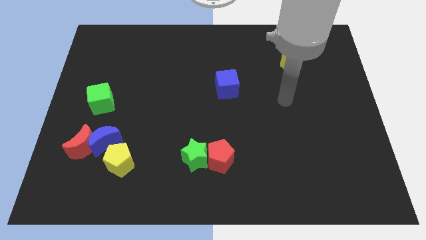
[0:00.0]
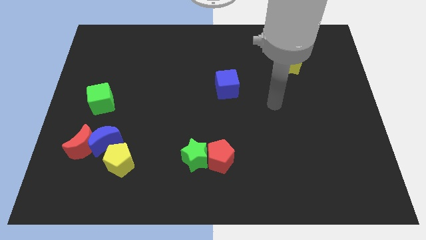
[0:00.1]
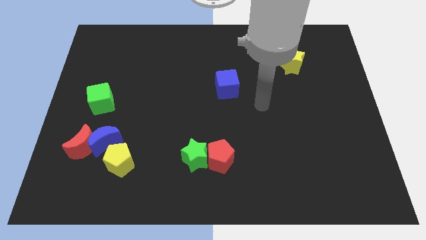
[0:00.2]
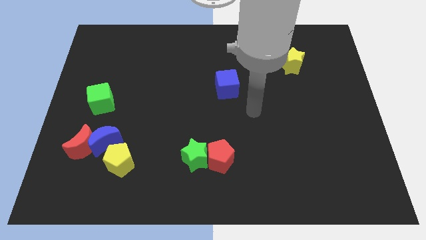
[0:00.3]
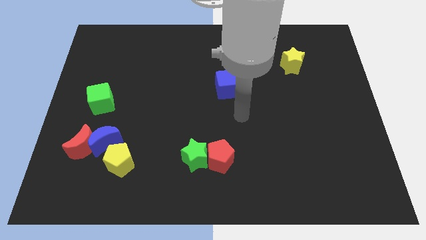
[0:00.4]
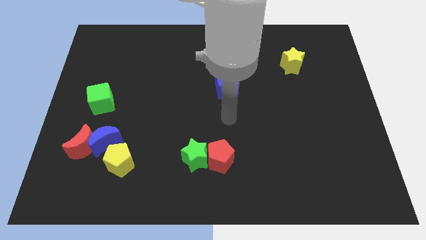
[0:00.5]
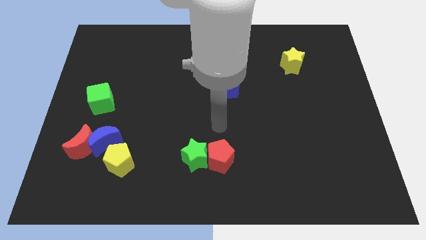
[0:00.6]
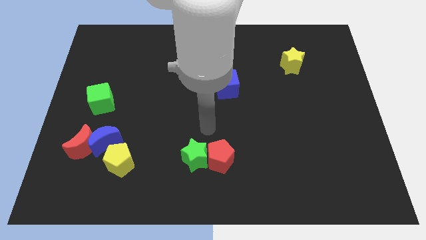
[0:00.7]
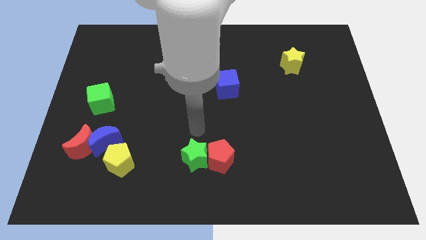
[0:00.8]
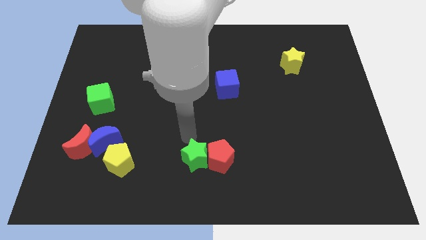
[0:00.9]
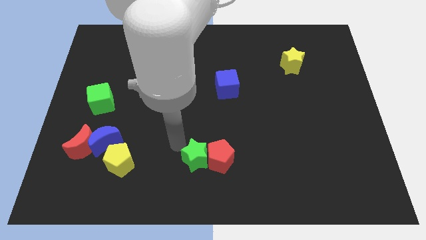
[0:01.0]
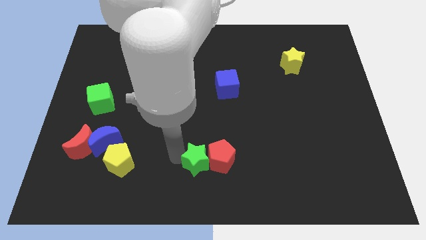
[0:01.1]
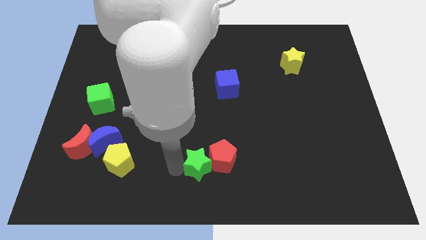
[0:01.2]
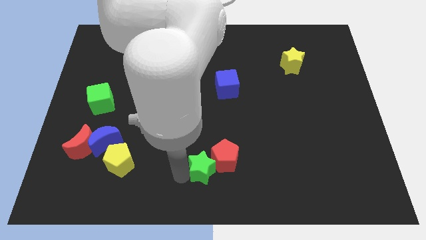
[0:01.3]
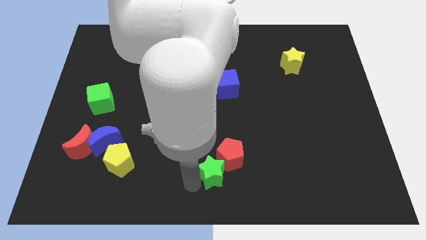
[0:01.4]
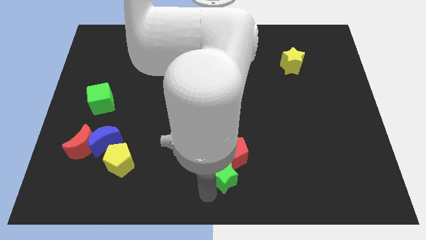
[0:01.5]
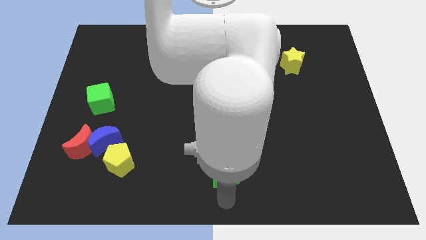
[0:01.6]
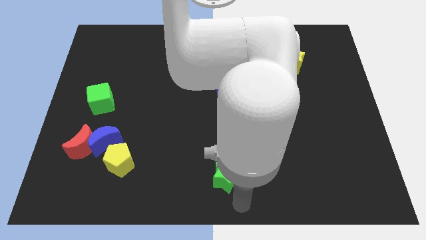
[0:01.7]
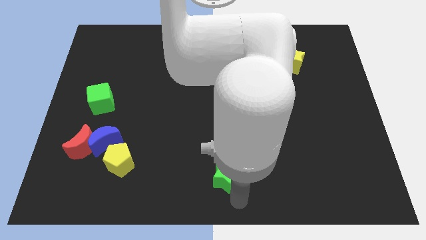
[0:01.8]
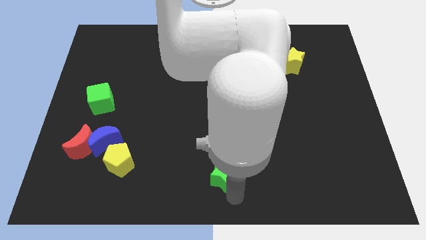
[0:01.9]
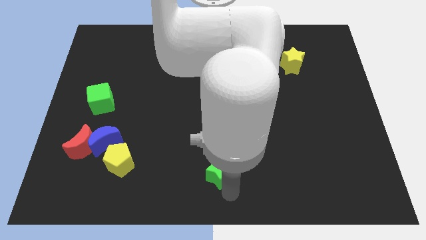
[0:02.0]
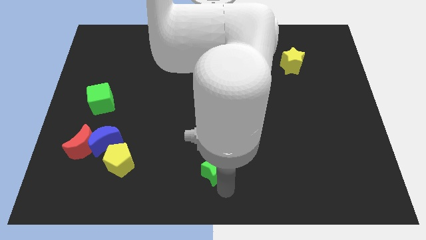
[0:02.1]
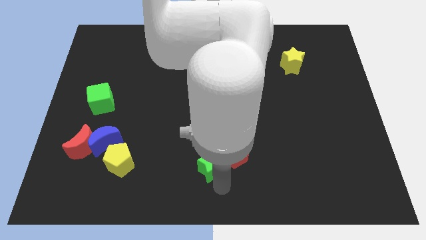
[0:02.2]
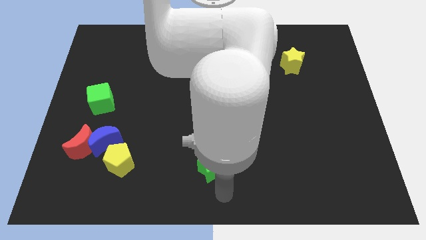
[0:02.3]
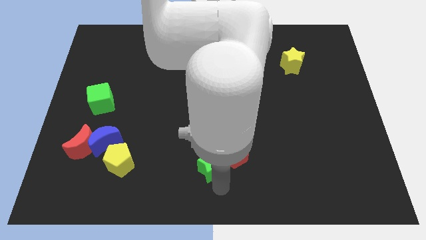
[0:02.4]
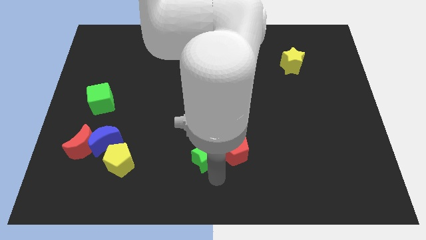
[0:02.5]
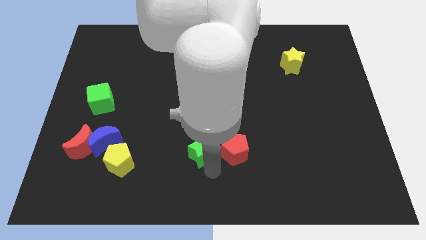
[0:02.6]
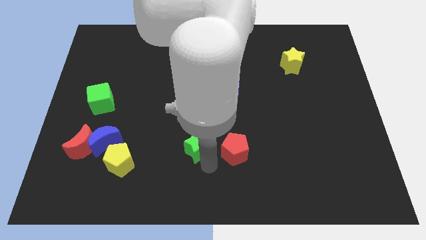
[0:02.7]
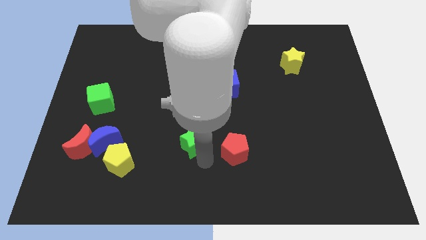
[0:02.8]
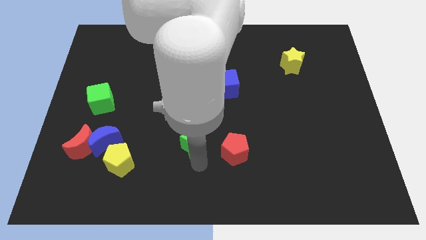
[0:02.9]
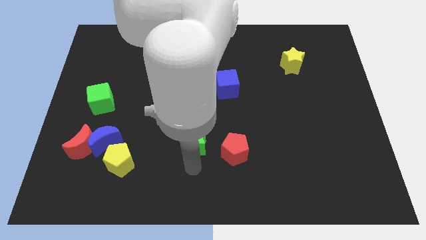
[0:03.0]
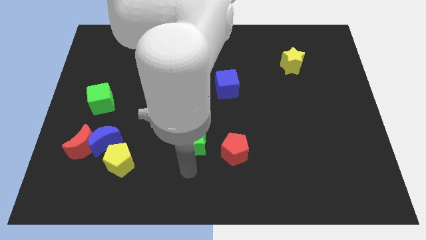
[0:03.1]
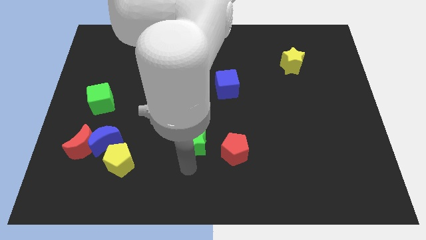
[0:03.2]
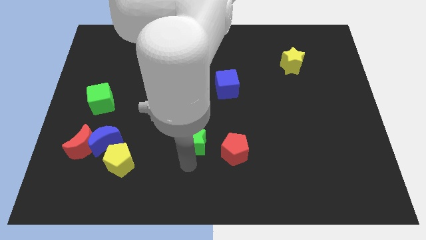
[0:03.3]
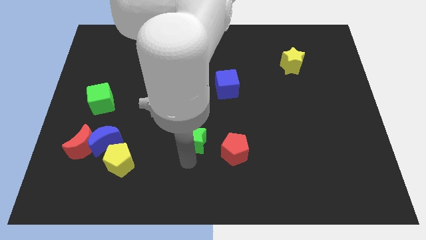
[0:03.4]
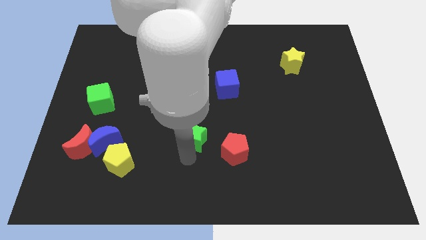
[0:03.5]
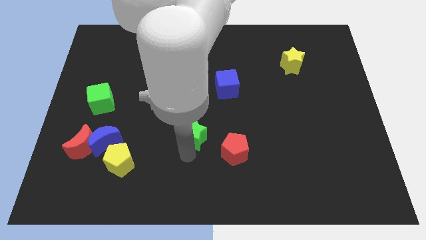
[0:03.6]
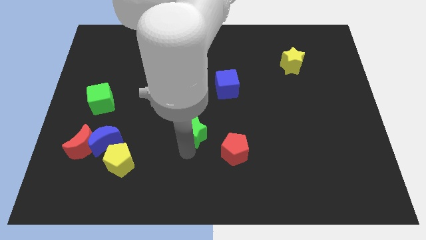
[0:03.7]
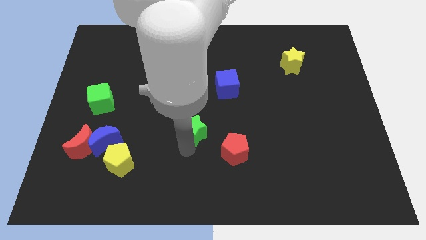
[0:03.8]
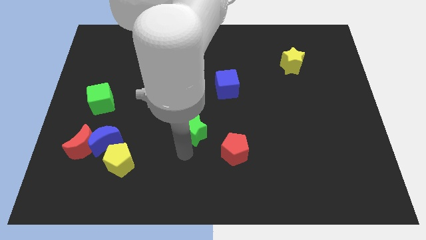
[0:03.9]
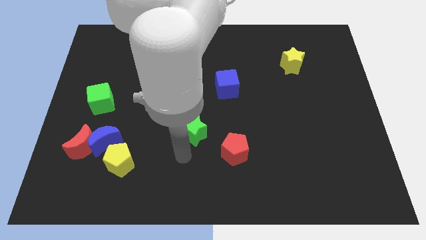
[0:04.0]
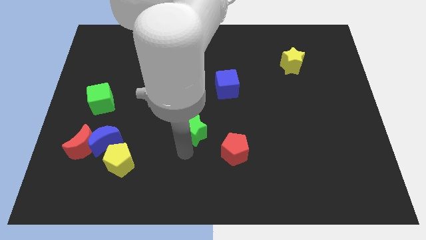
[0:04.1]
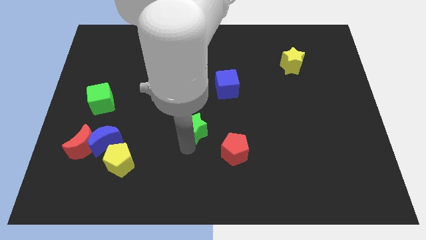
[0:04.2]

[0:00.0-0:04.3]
slightly slide the green star upwards

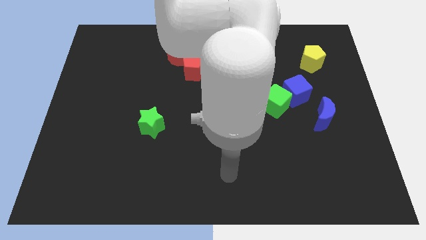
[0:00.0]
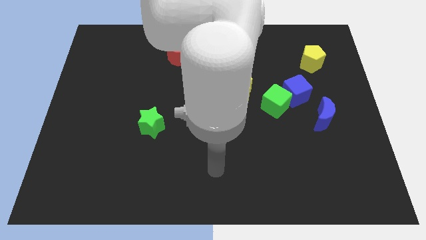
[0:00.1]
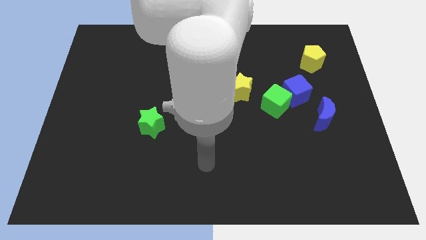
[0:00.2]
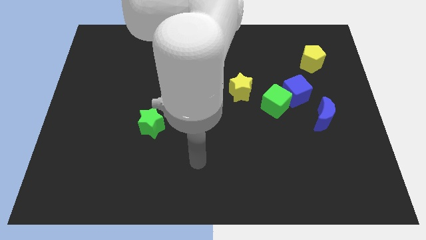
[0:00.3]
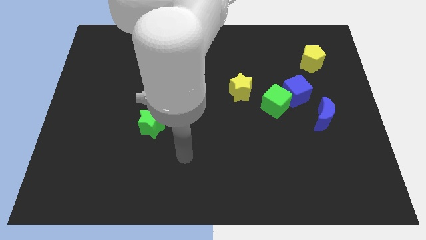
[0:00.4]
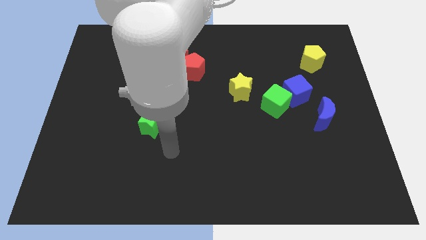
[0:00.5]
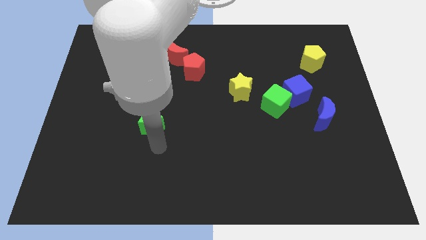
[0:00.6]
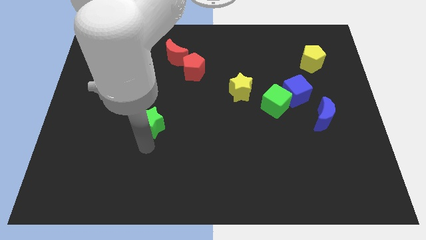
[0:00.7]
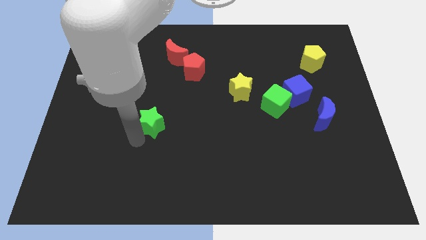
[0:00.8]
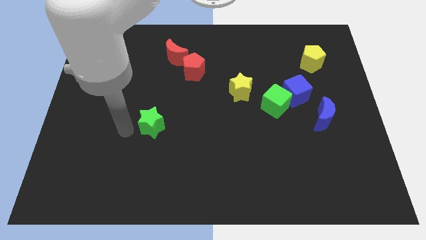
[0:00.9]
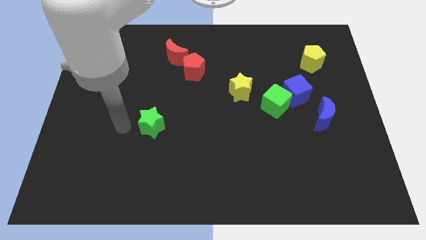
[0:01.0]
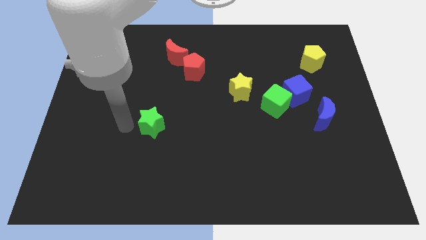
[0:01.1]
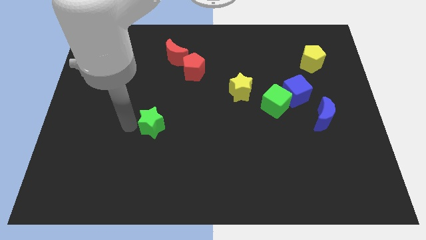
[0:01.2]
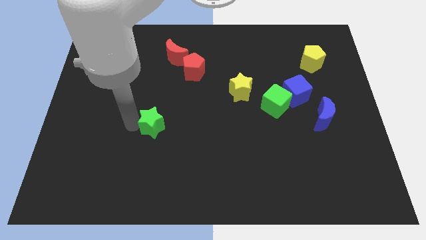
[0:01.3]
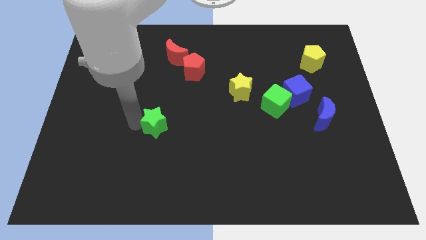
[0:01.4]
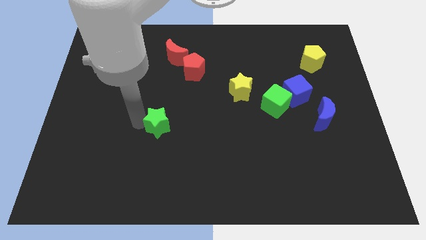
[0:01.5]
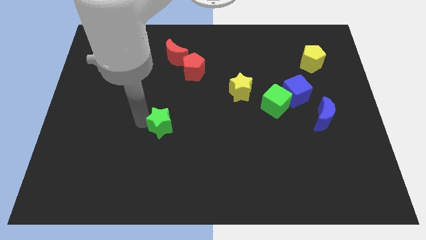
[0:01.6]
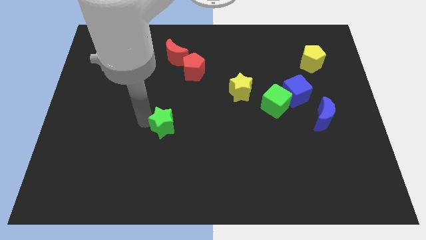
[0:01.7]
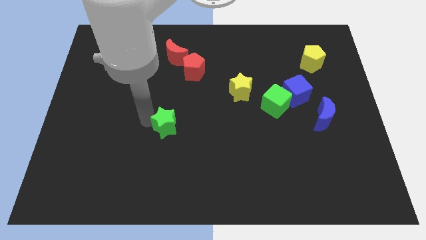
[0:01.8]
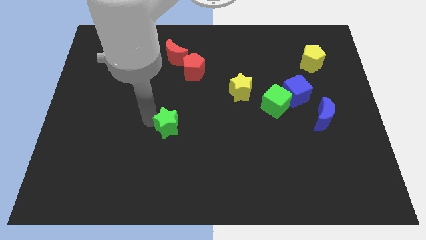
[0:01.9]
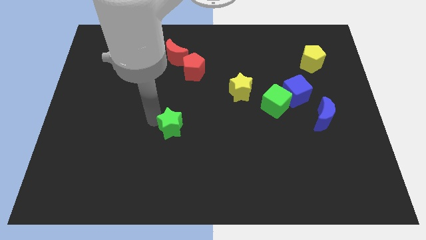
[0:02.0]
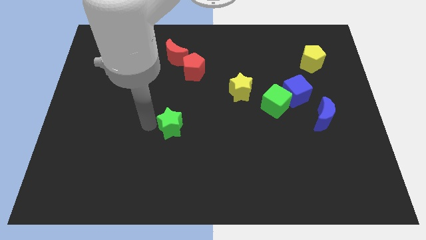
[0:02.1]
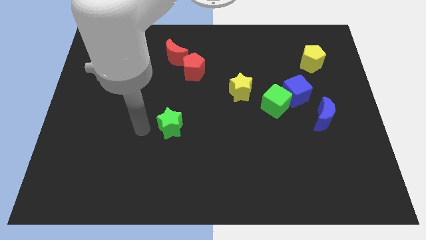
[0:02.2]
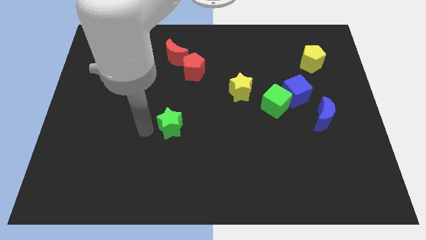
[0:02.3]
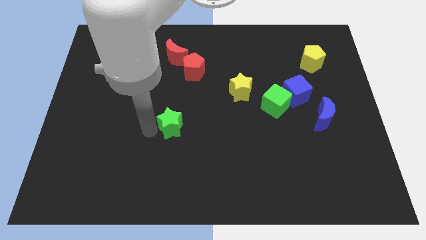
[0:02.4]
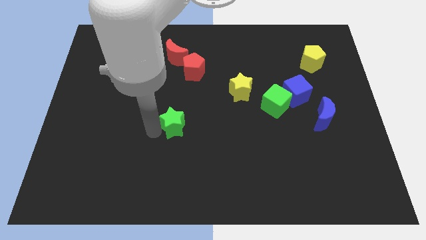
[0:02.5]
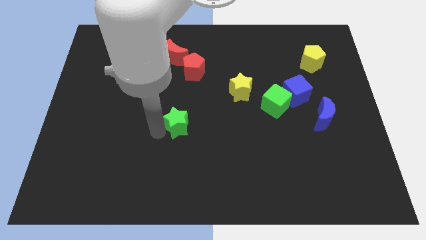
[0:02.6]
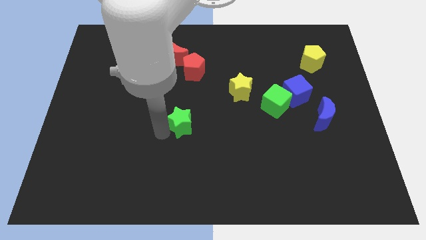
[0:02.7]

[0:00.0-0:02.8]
slide the green star a bit right

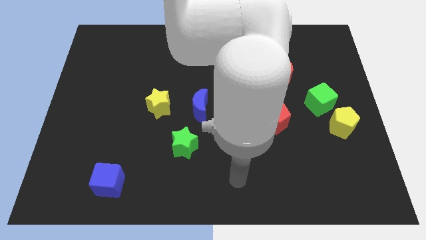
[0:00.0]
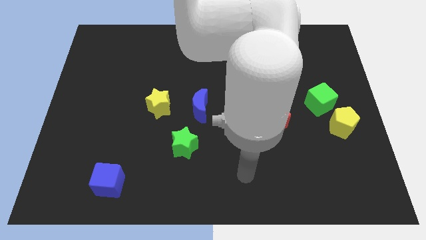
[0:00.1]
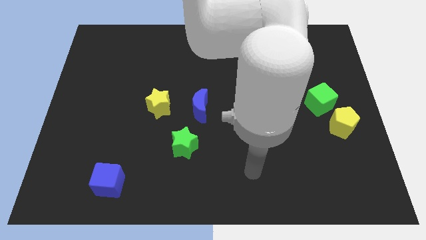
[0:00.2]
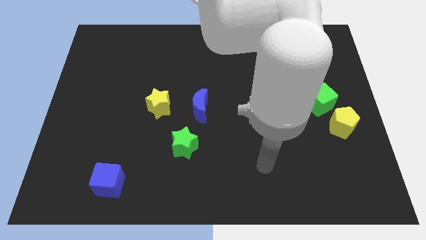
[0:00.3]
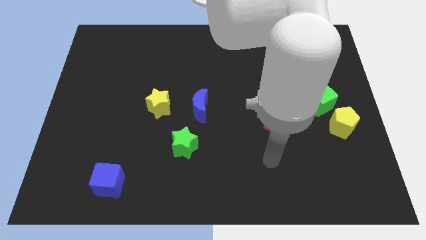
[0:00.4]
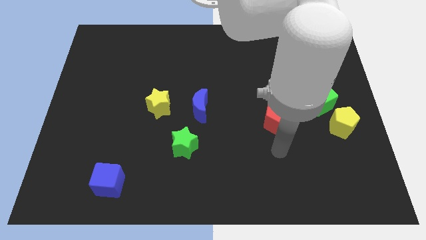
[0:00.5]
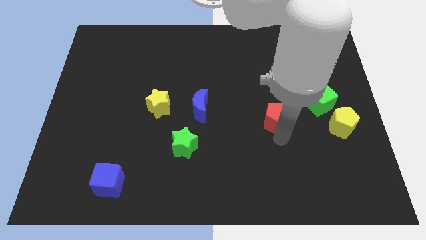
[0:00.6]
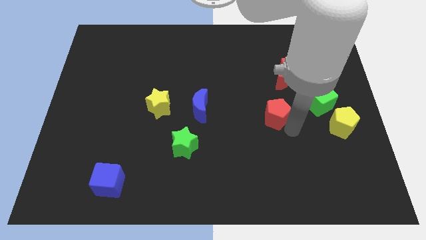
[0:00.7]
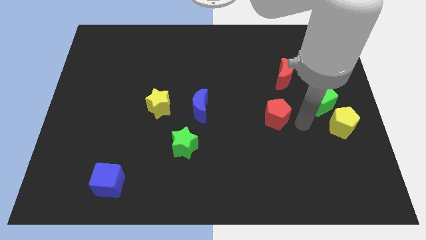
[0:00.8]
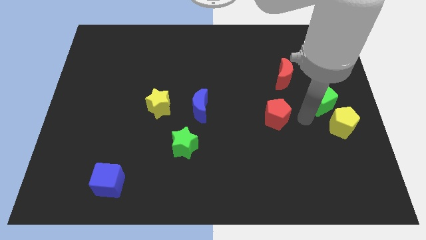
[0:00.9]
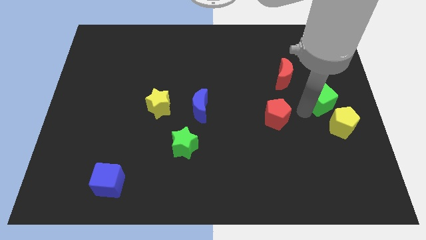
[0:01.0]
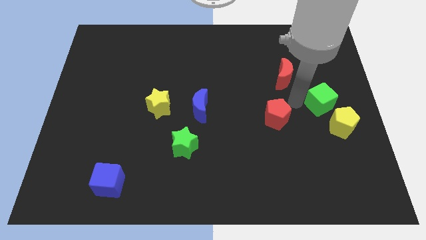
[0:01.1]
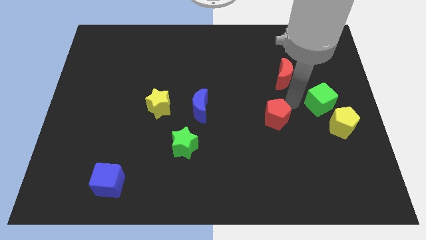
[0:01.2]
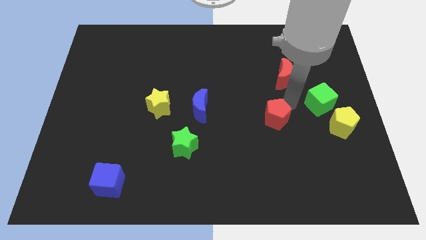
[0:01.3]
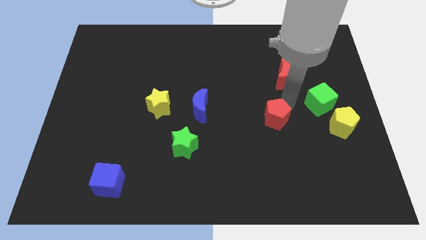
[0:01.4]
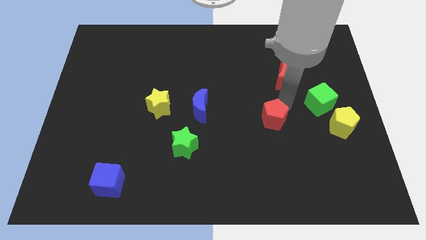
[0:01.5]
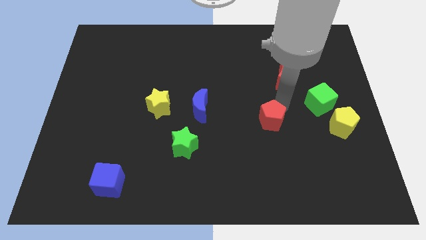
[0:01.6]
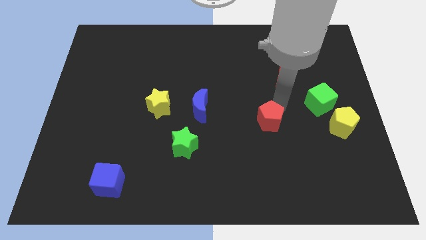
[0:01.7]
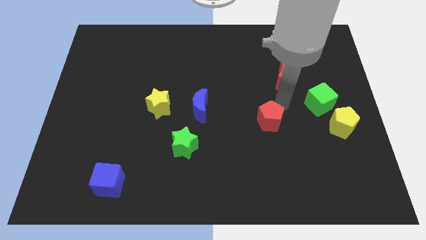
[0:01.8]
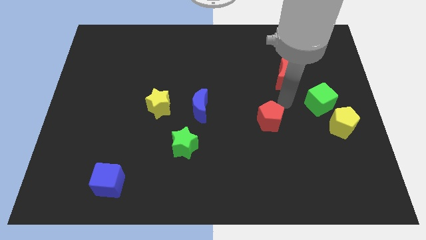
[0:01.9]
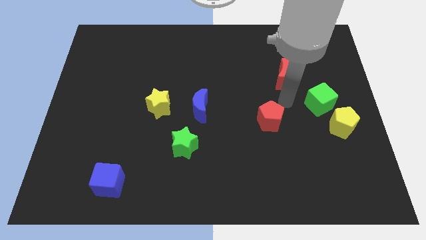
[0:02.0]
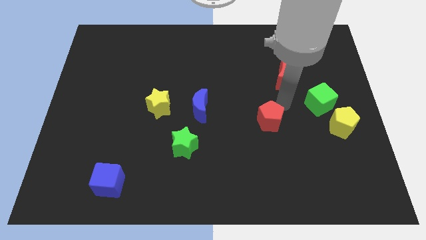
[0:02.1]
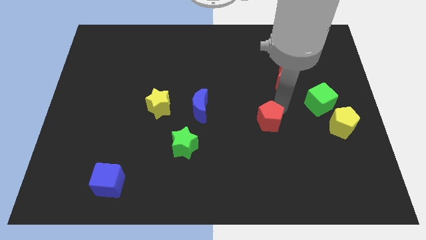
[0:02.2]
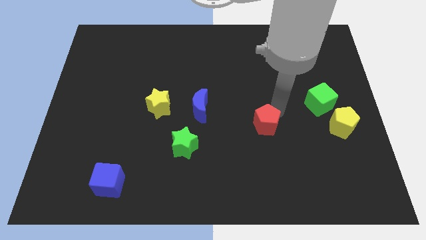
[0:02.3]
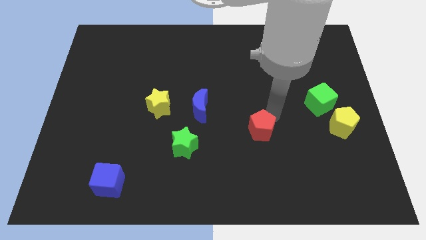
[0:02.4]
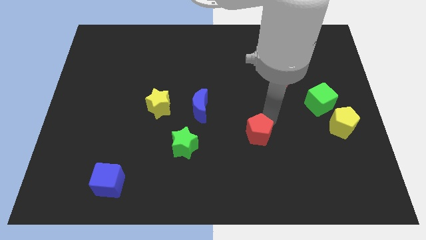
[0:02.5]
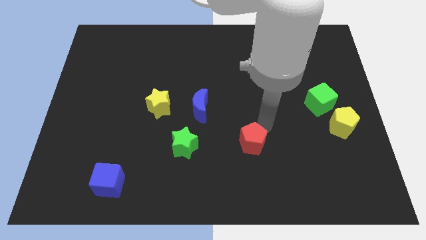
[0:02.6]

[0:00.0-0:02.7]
move the red pentagon down and to the left diagonally a bit
